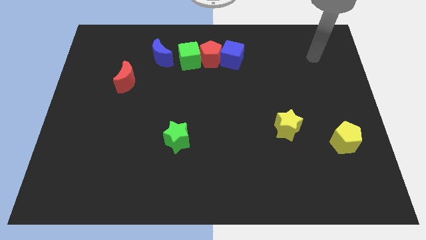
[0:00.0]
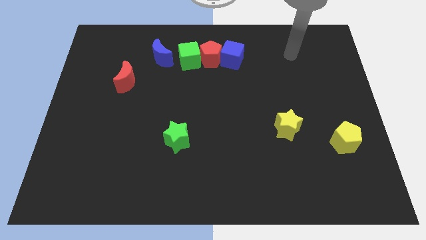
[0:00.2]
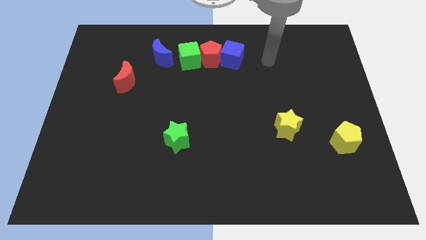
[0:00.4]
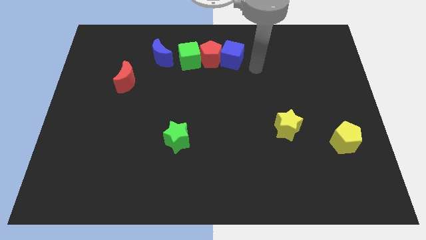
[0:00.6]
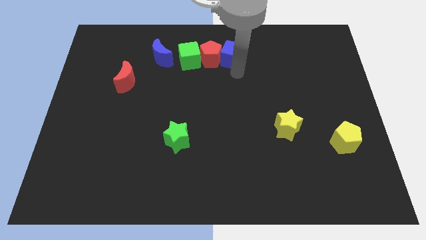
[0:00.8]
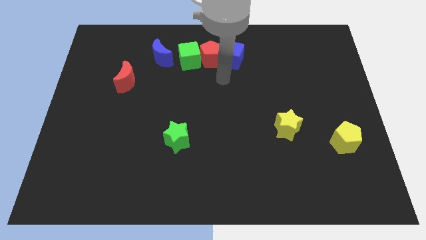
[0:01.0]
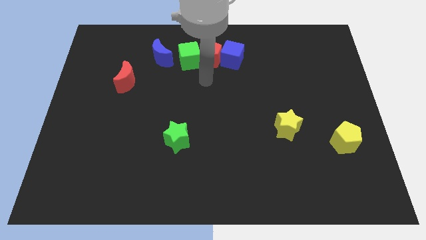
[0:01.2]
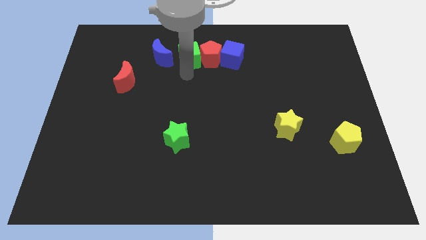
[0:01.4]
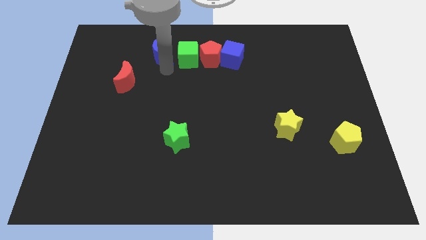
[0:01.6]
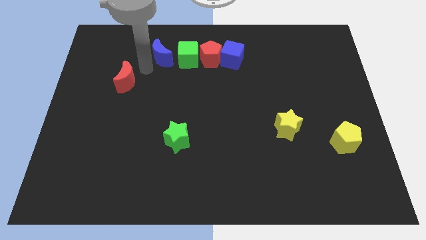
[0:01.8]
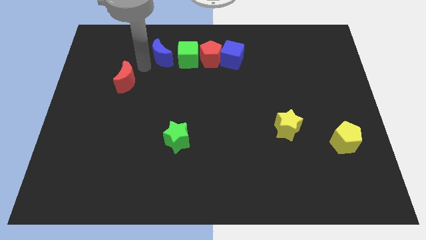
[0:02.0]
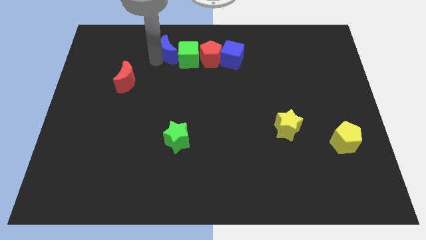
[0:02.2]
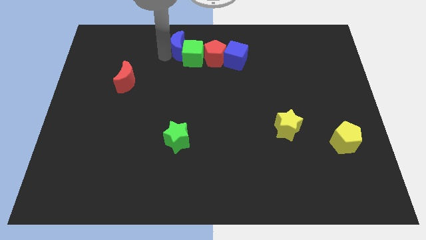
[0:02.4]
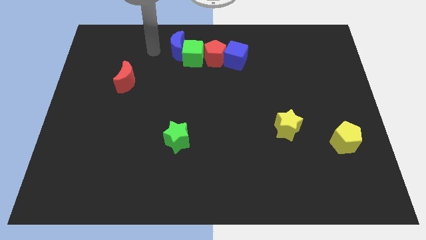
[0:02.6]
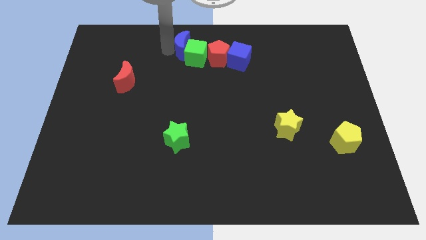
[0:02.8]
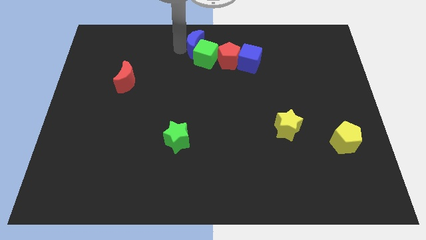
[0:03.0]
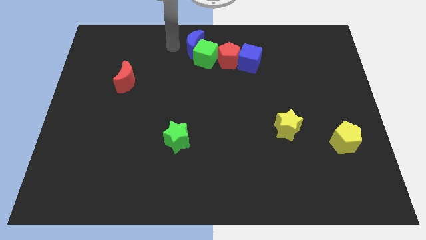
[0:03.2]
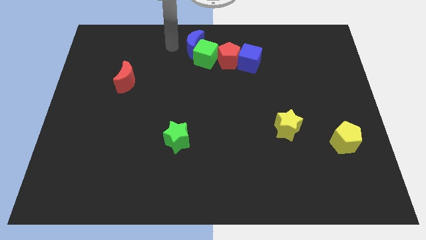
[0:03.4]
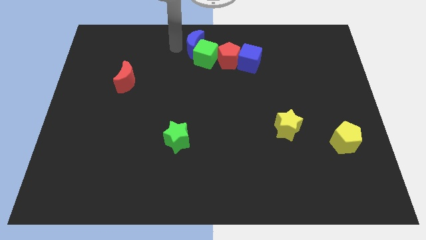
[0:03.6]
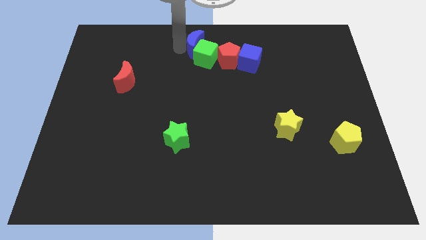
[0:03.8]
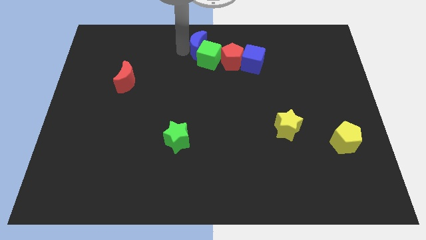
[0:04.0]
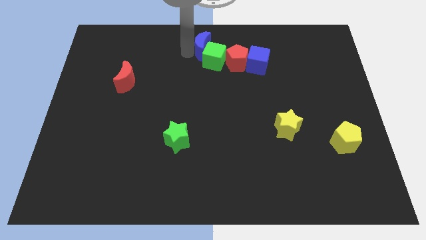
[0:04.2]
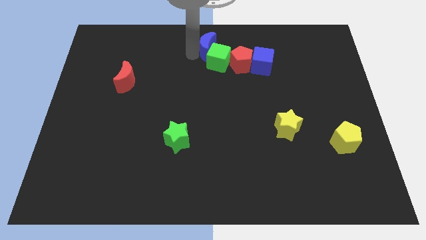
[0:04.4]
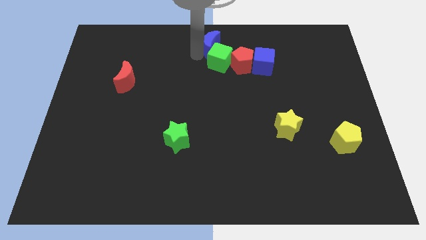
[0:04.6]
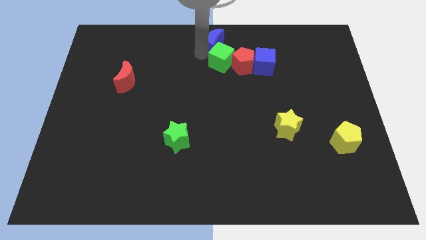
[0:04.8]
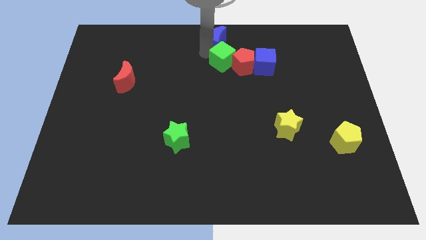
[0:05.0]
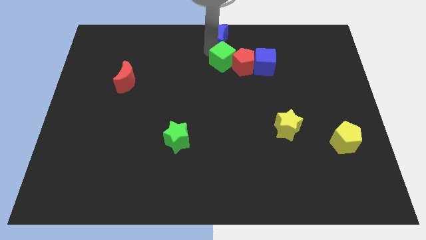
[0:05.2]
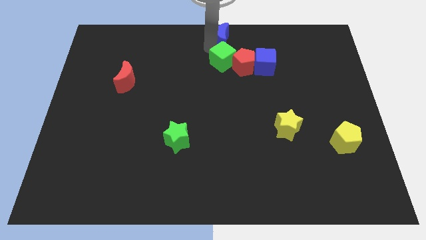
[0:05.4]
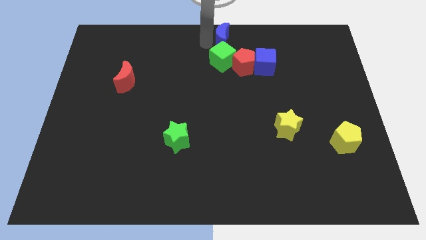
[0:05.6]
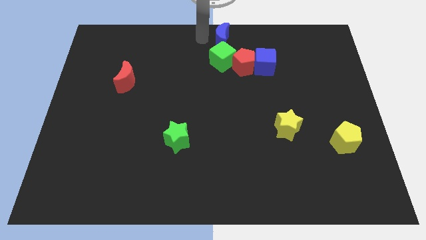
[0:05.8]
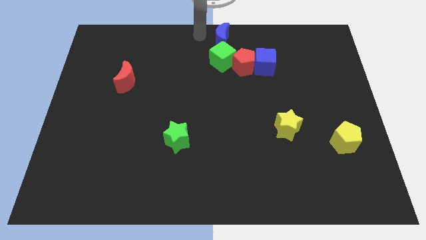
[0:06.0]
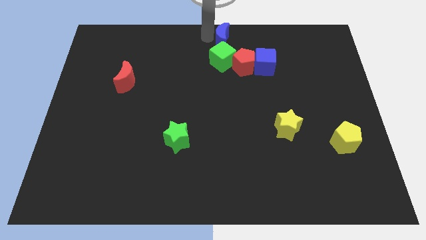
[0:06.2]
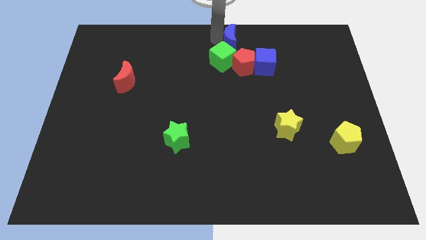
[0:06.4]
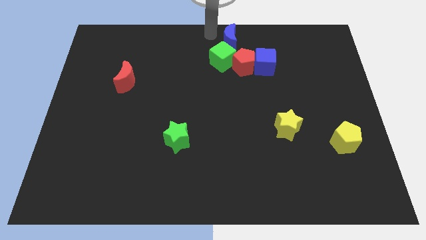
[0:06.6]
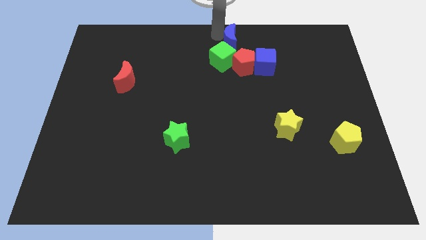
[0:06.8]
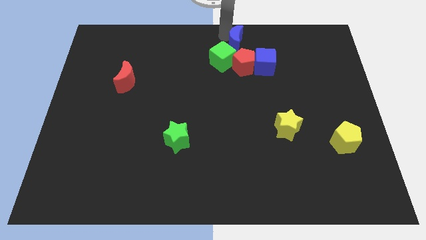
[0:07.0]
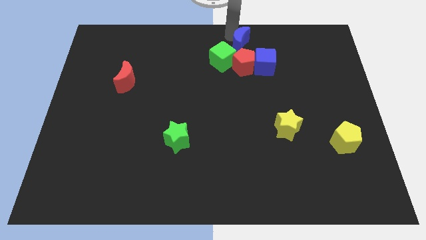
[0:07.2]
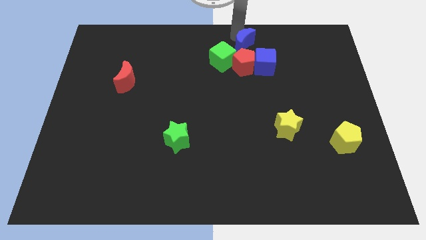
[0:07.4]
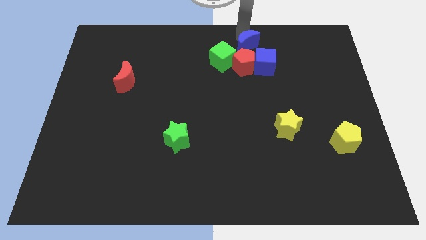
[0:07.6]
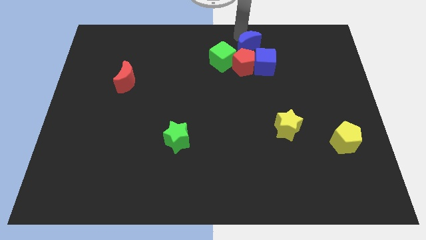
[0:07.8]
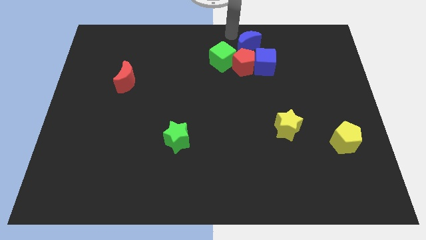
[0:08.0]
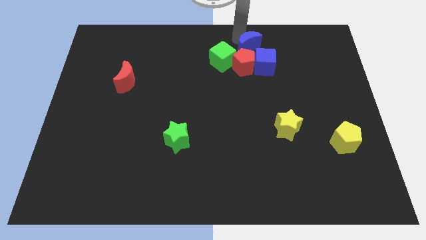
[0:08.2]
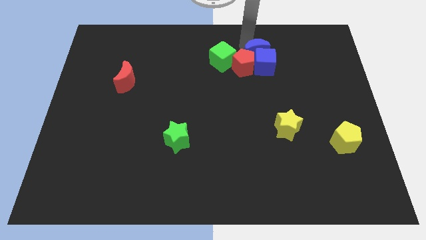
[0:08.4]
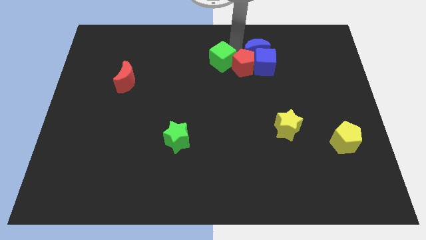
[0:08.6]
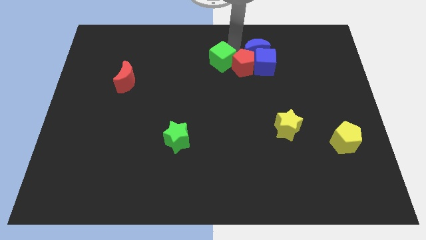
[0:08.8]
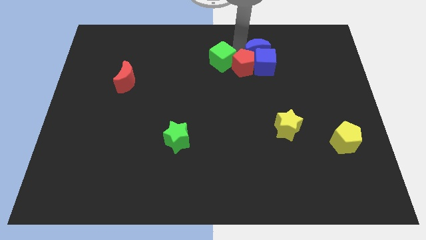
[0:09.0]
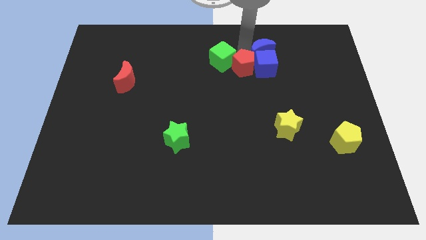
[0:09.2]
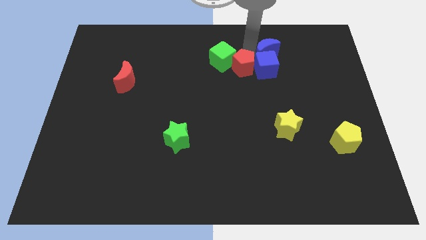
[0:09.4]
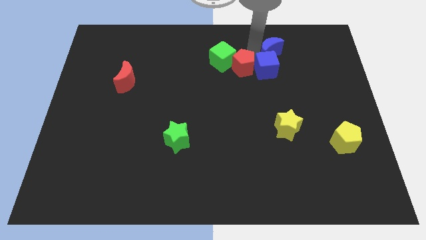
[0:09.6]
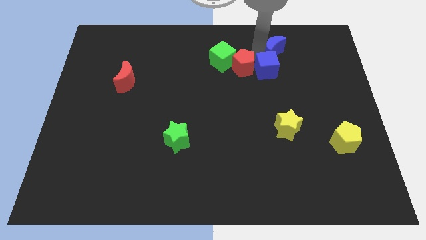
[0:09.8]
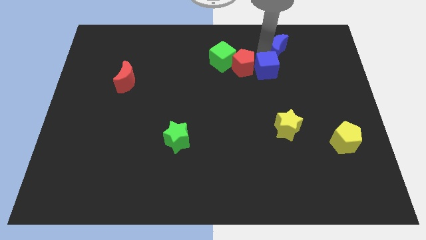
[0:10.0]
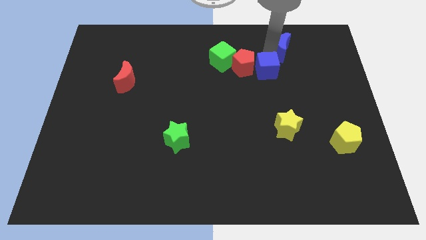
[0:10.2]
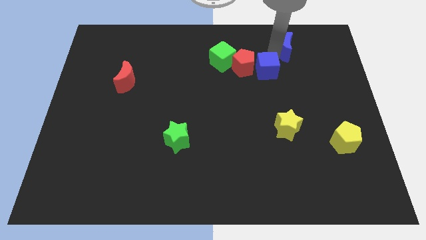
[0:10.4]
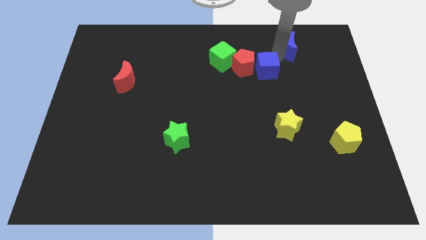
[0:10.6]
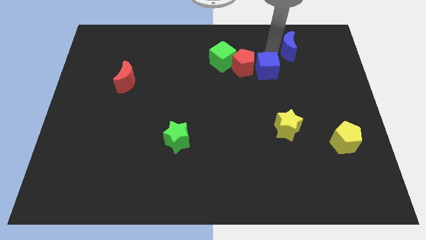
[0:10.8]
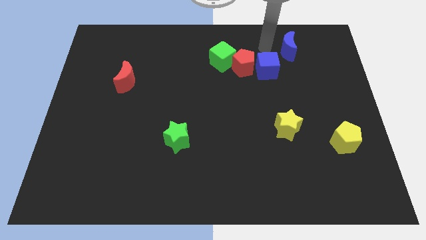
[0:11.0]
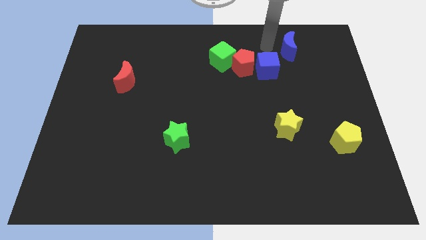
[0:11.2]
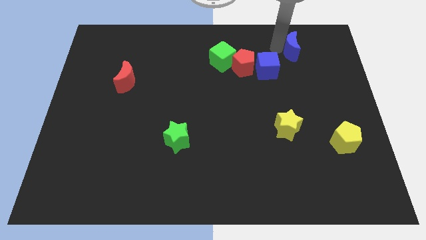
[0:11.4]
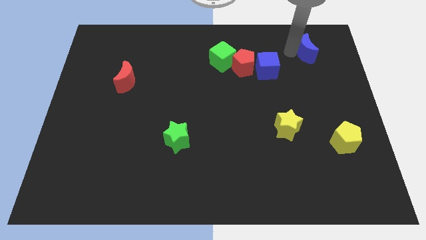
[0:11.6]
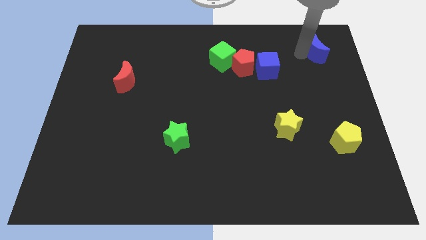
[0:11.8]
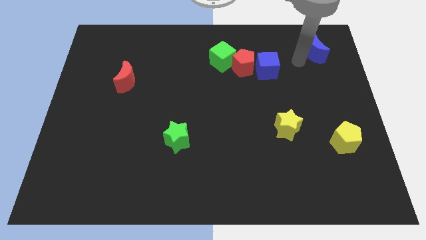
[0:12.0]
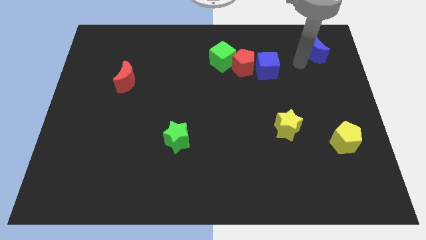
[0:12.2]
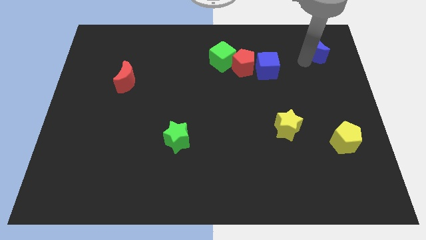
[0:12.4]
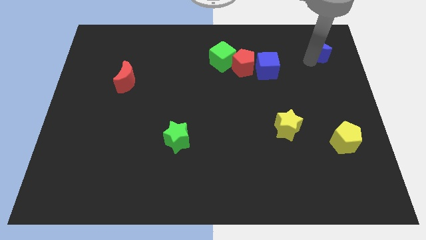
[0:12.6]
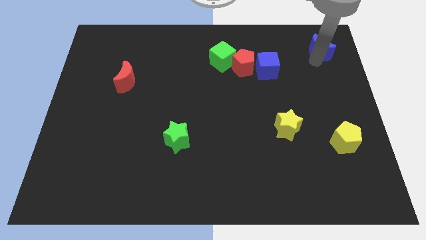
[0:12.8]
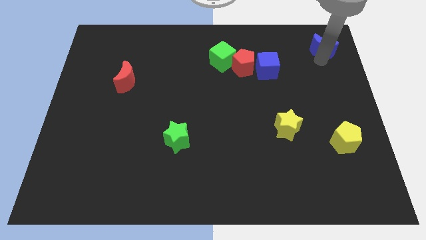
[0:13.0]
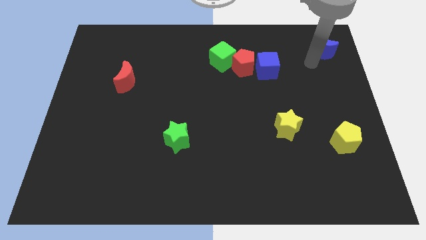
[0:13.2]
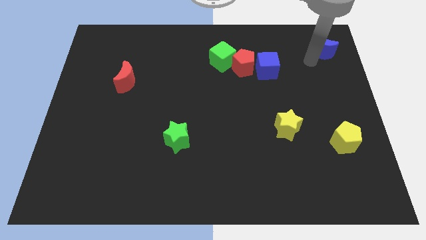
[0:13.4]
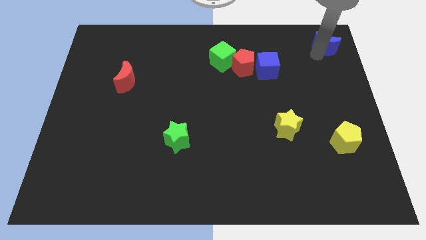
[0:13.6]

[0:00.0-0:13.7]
move the blue moon to the upper right corner
